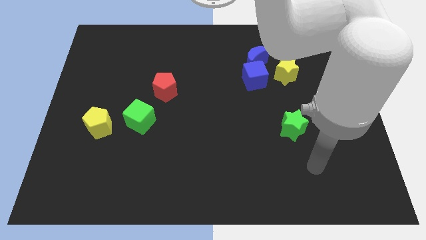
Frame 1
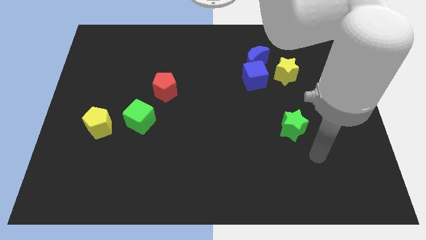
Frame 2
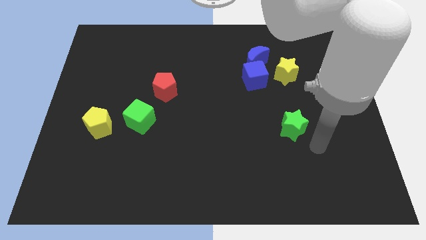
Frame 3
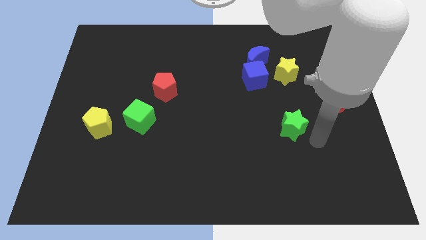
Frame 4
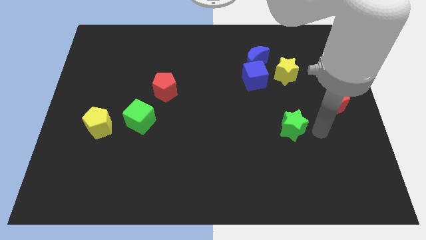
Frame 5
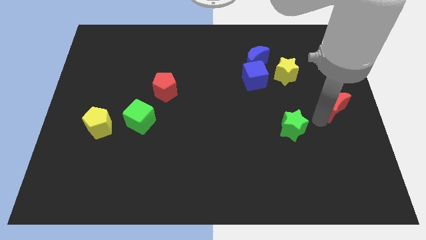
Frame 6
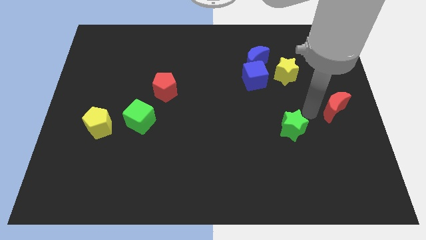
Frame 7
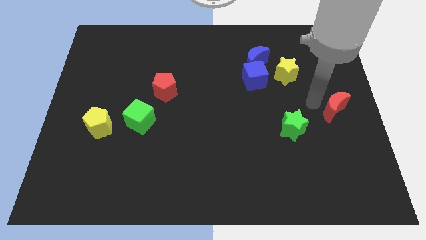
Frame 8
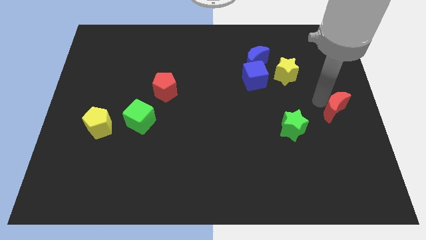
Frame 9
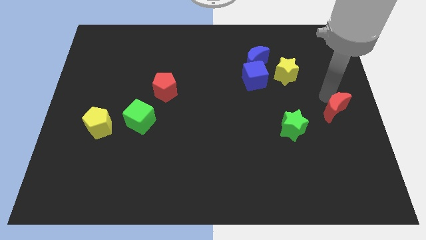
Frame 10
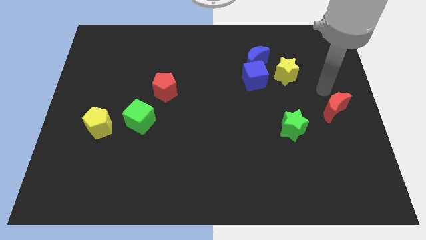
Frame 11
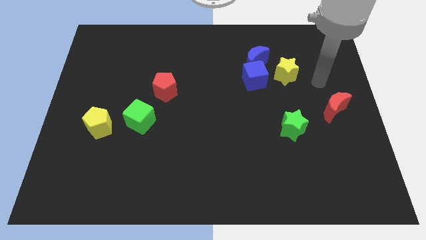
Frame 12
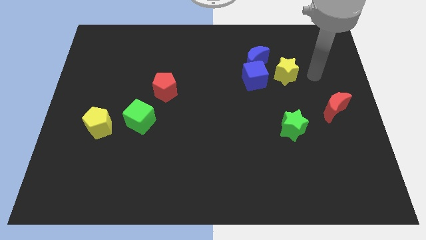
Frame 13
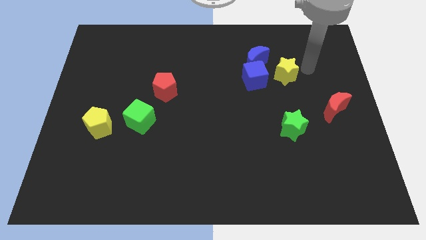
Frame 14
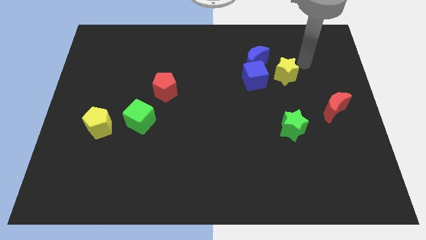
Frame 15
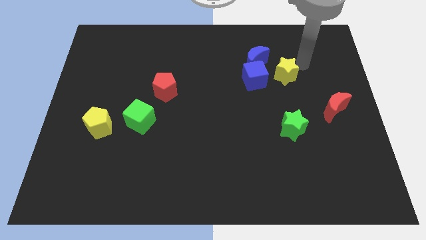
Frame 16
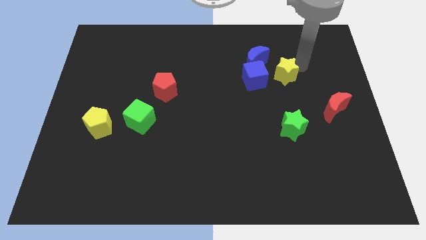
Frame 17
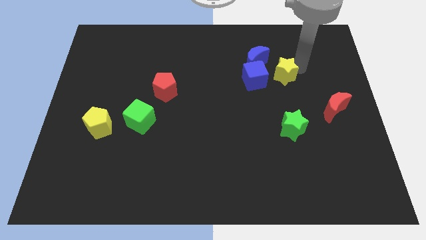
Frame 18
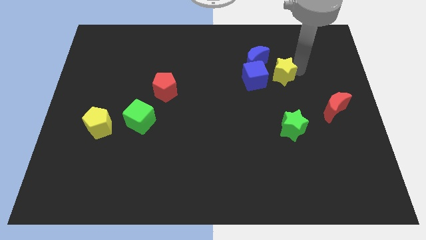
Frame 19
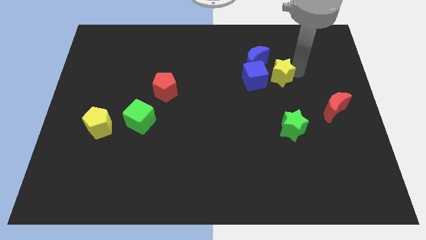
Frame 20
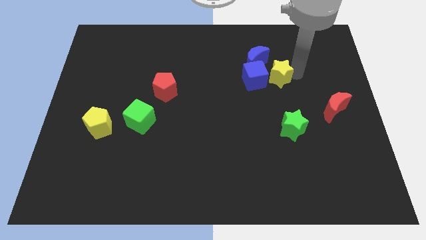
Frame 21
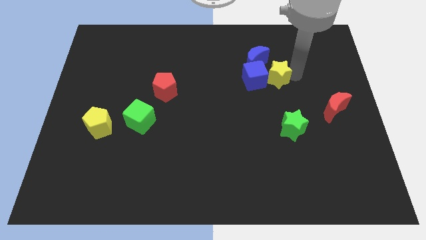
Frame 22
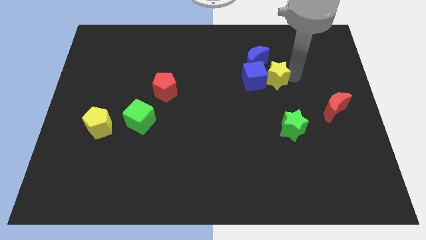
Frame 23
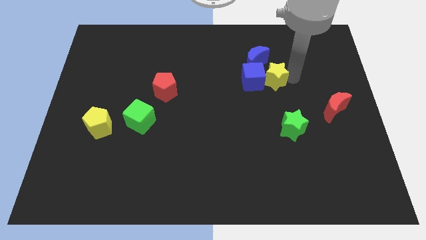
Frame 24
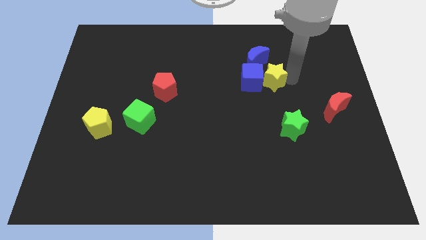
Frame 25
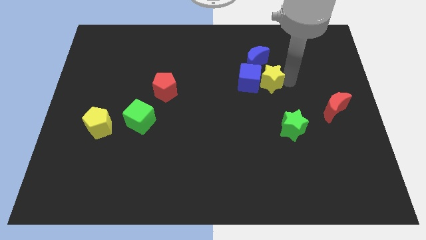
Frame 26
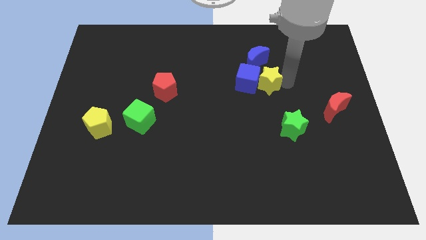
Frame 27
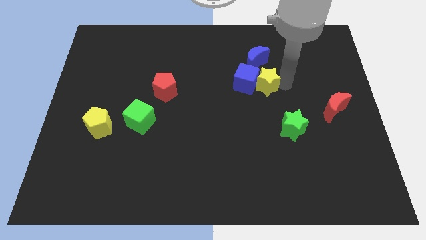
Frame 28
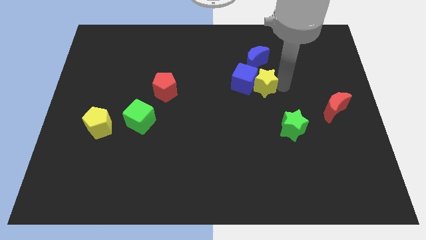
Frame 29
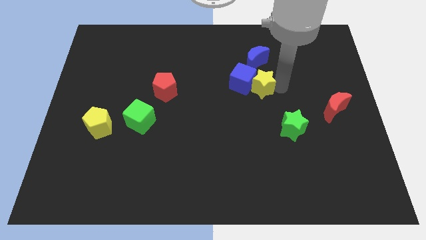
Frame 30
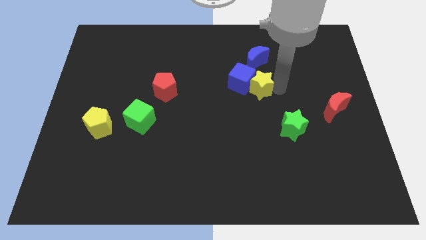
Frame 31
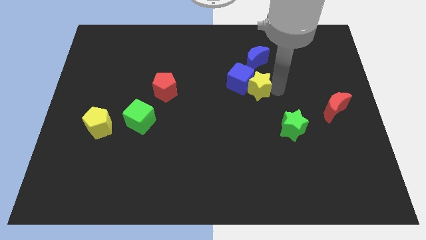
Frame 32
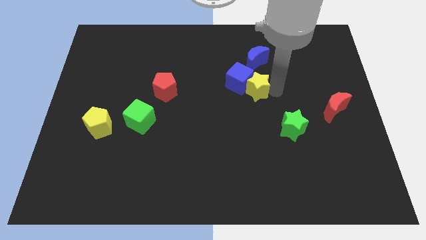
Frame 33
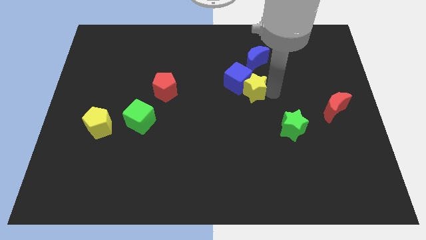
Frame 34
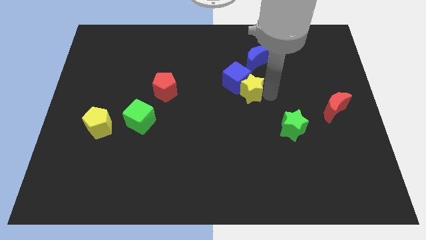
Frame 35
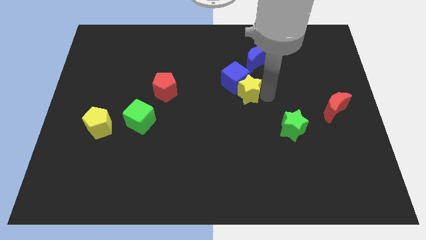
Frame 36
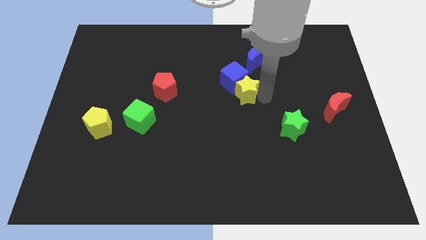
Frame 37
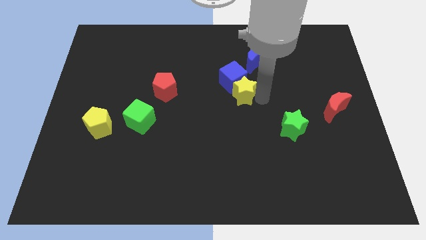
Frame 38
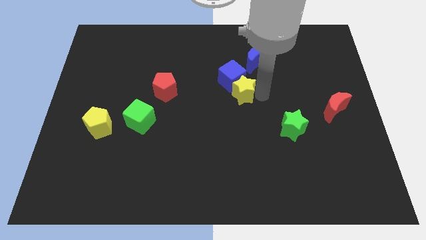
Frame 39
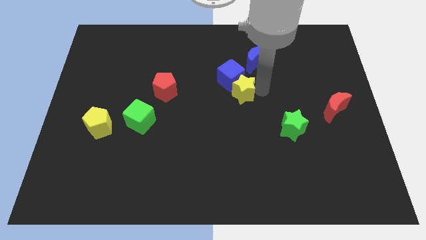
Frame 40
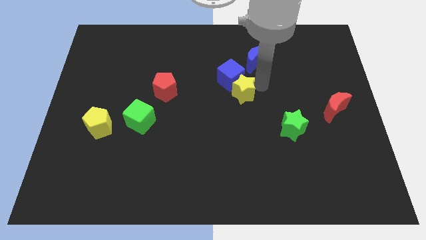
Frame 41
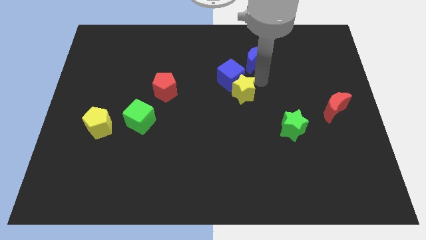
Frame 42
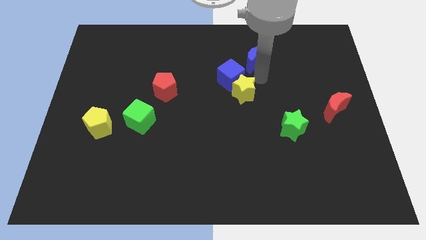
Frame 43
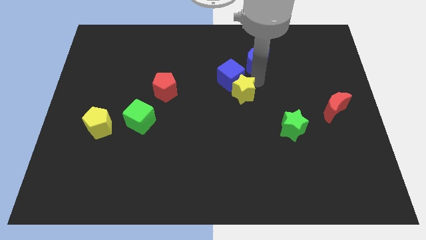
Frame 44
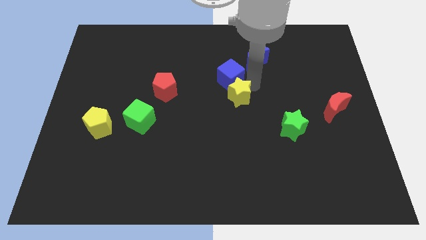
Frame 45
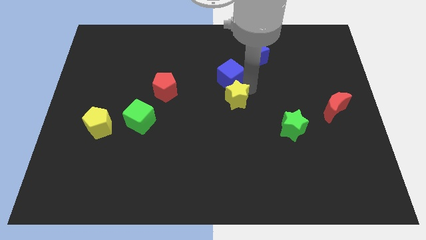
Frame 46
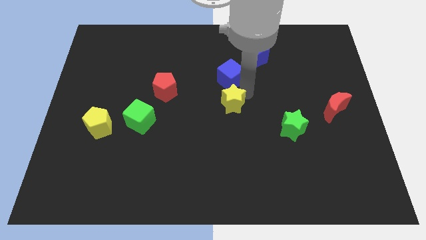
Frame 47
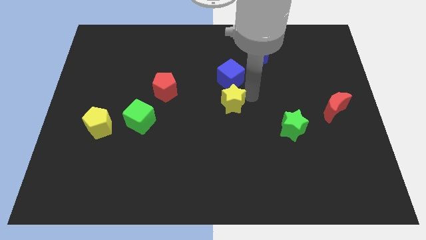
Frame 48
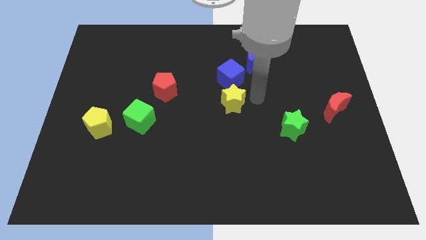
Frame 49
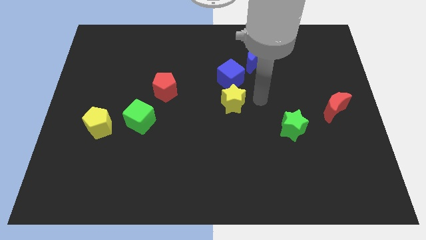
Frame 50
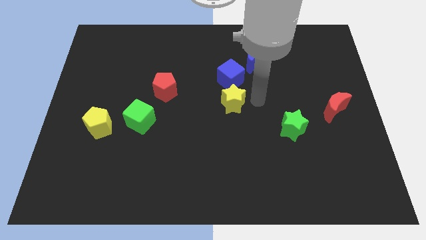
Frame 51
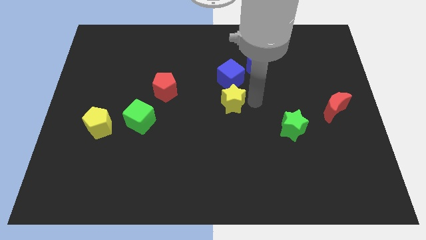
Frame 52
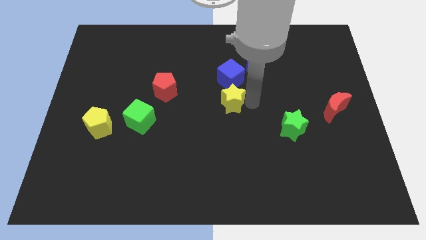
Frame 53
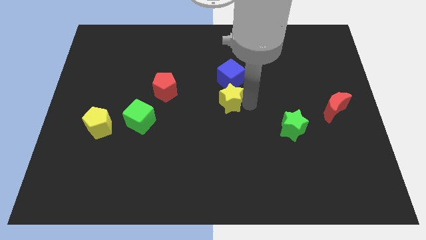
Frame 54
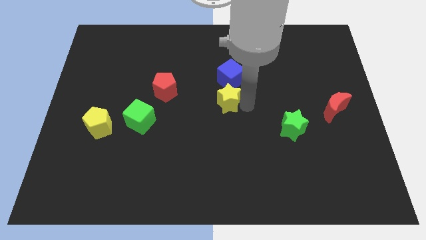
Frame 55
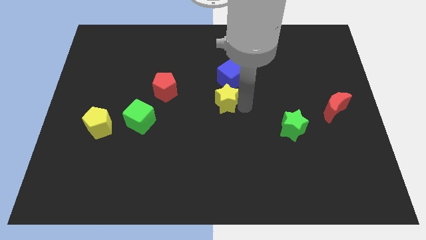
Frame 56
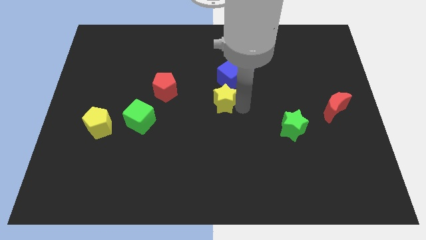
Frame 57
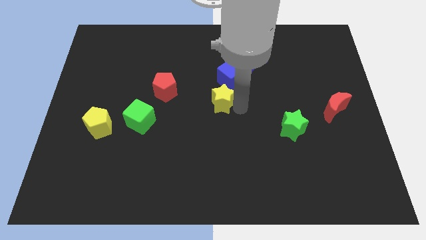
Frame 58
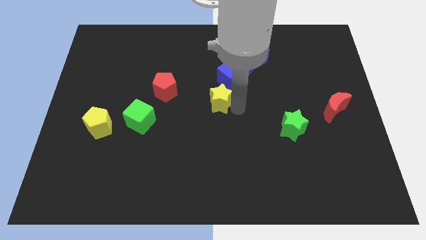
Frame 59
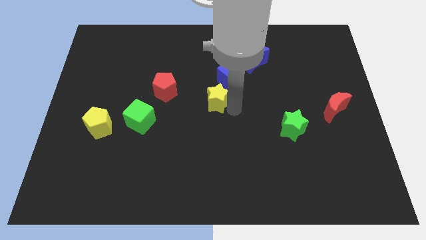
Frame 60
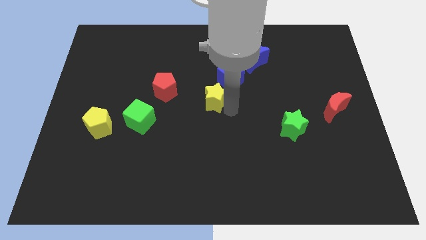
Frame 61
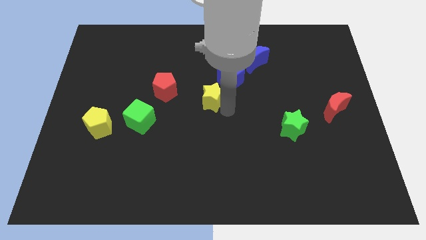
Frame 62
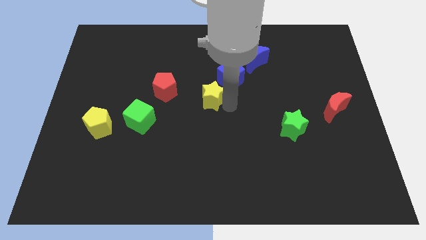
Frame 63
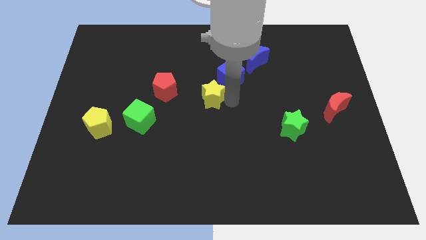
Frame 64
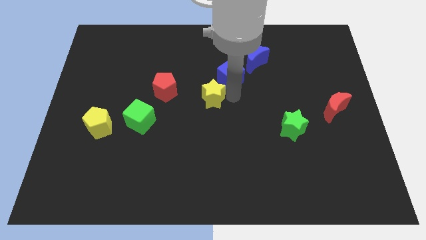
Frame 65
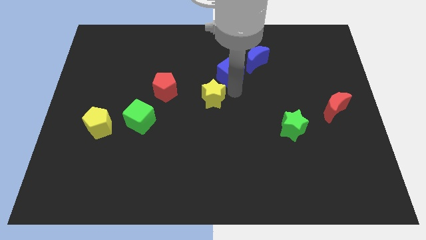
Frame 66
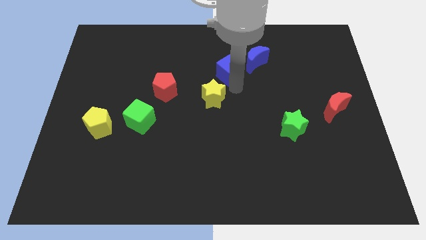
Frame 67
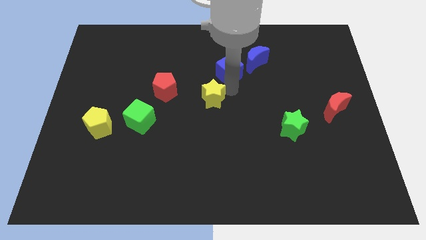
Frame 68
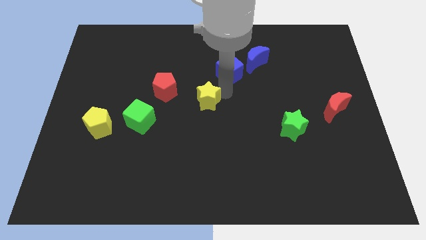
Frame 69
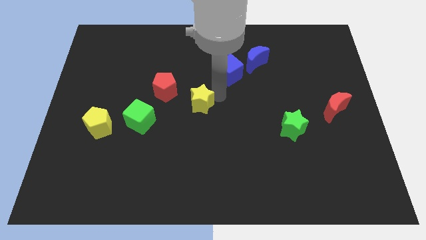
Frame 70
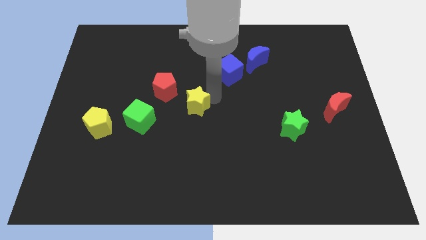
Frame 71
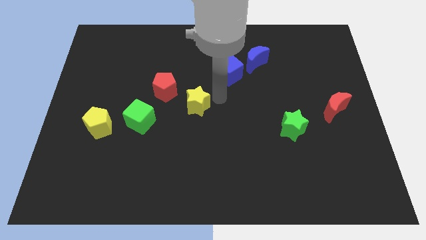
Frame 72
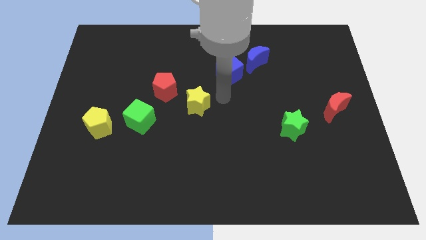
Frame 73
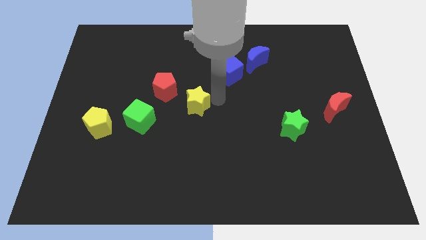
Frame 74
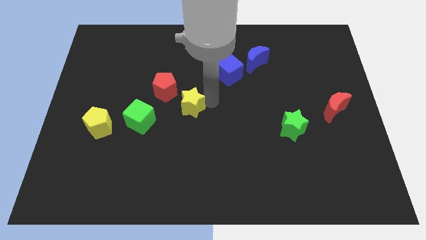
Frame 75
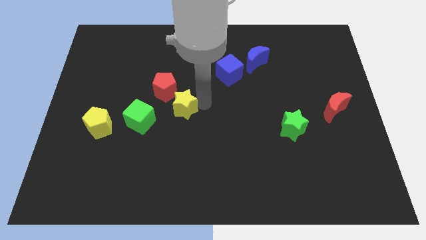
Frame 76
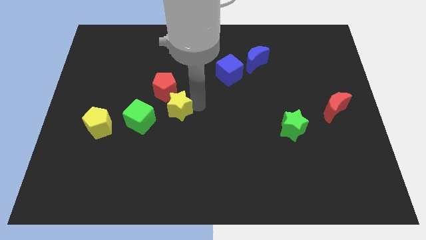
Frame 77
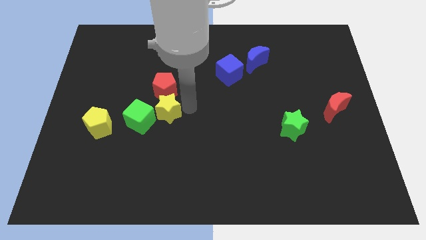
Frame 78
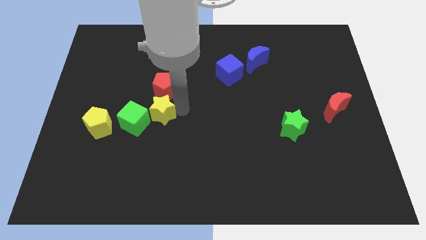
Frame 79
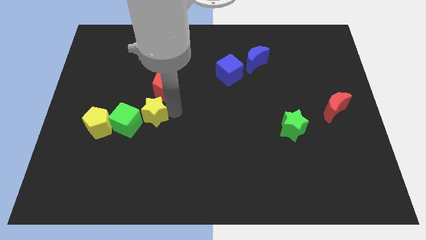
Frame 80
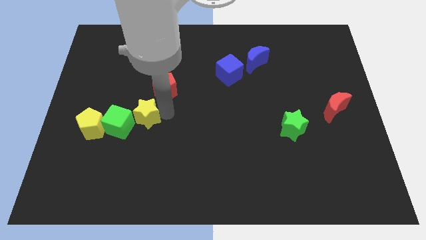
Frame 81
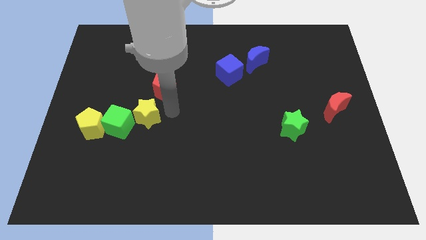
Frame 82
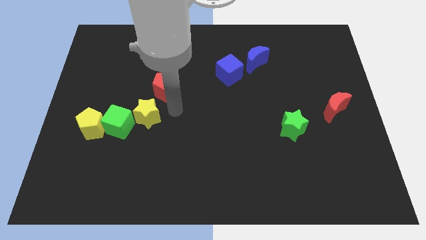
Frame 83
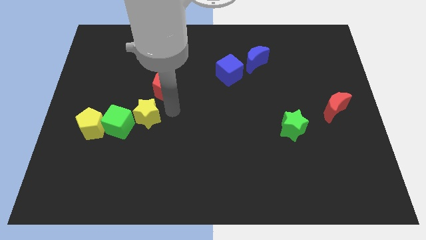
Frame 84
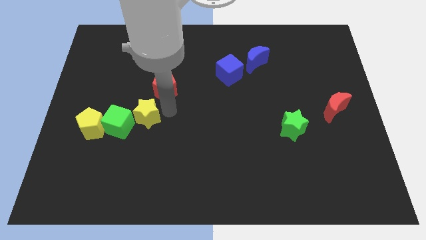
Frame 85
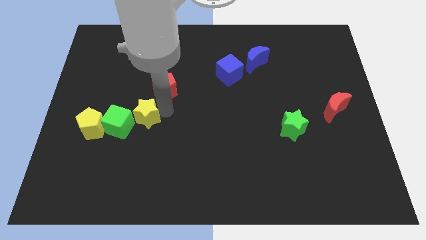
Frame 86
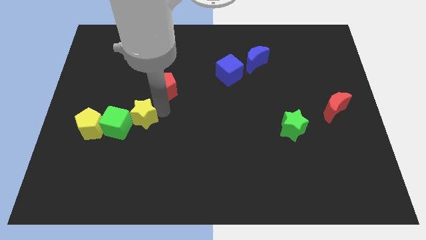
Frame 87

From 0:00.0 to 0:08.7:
push the yellow star to the green cube
